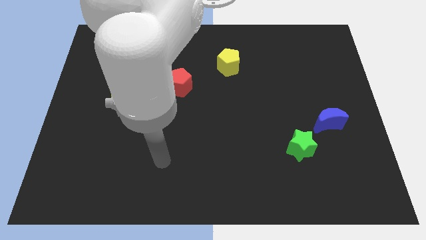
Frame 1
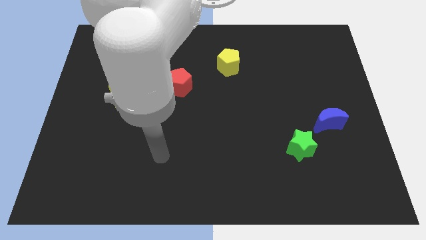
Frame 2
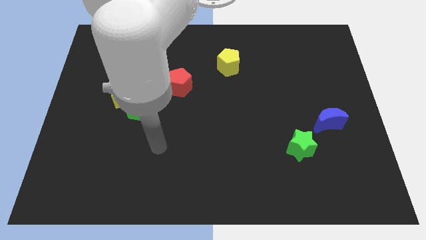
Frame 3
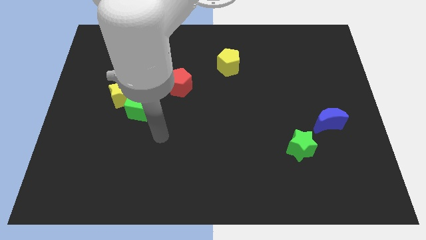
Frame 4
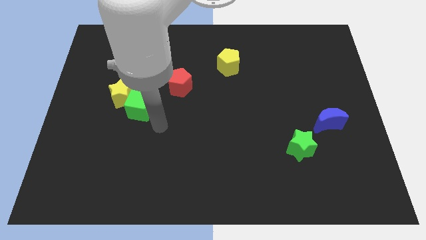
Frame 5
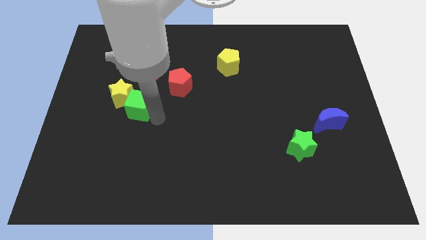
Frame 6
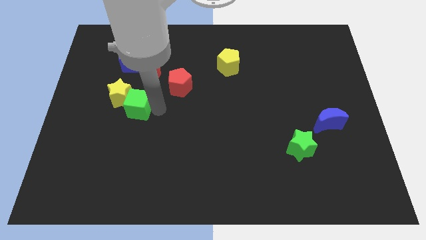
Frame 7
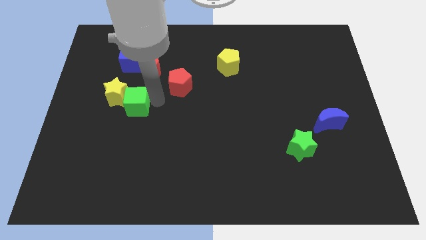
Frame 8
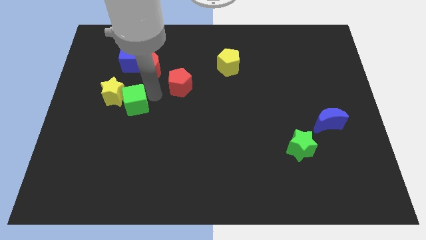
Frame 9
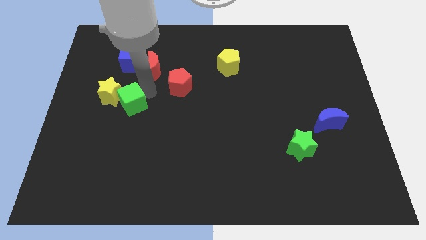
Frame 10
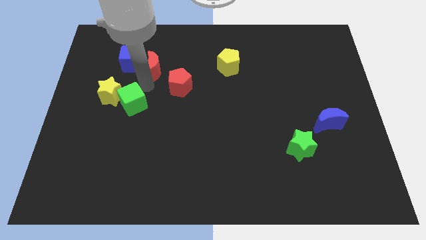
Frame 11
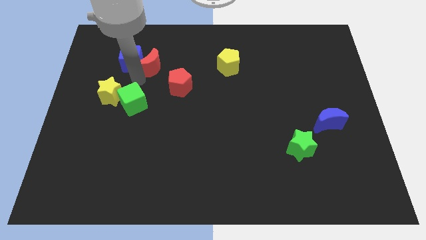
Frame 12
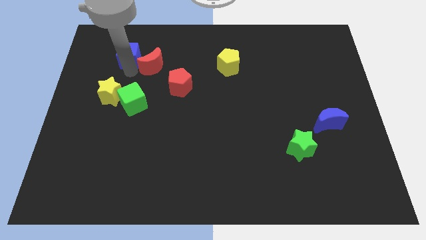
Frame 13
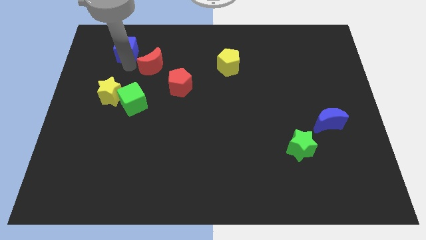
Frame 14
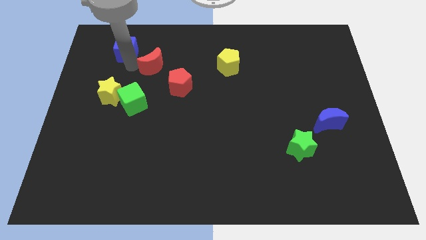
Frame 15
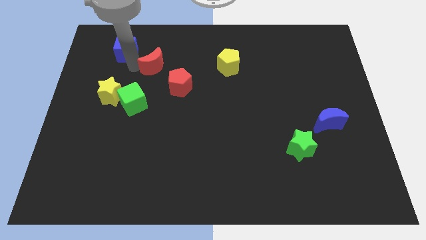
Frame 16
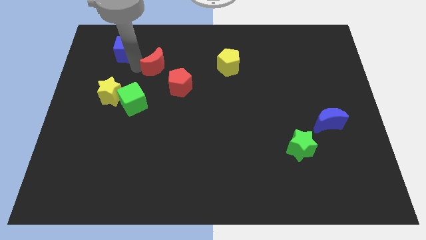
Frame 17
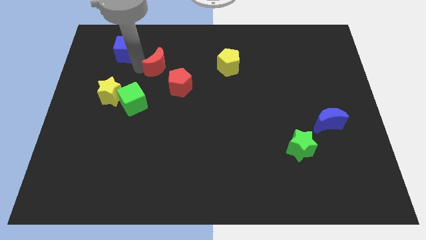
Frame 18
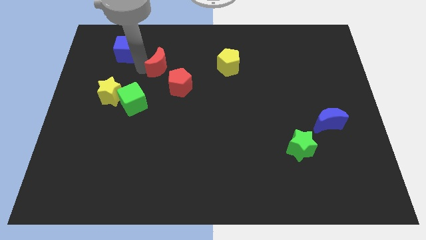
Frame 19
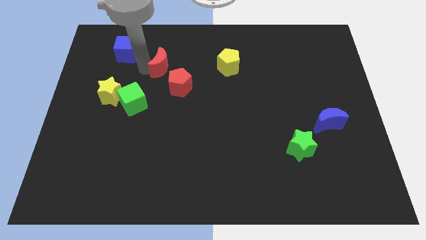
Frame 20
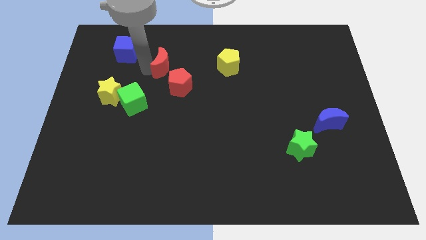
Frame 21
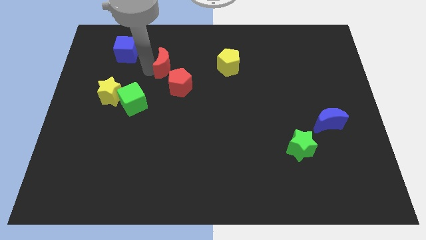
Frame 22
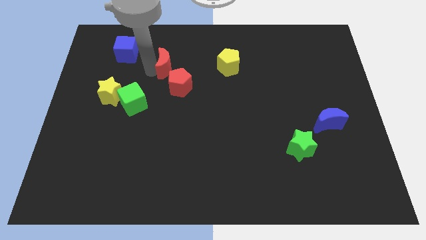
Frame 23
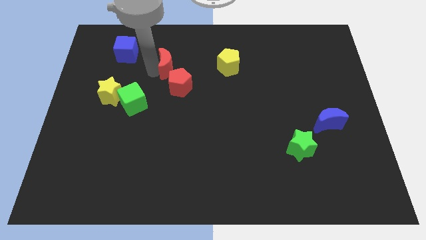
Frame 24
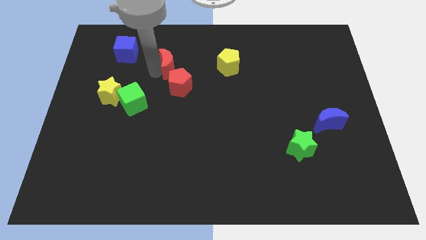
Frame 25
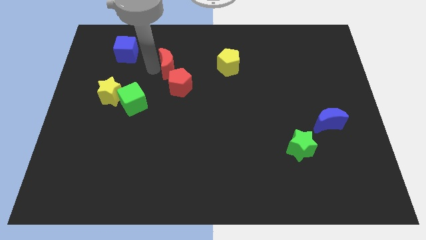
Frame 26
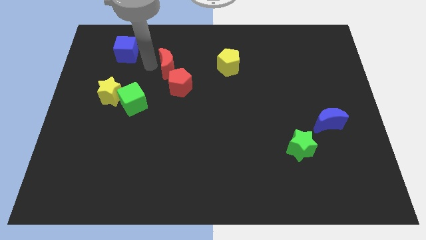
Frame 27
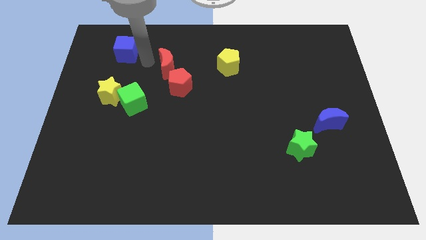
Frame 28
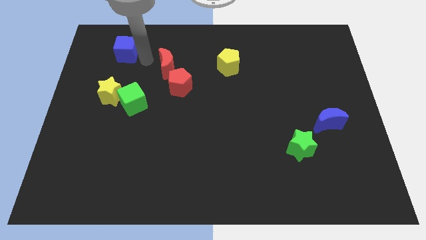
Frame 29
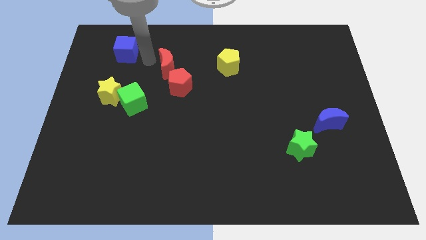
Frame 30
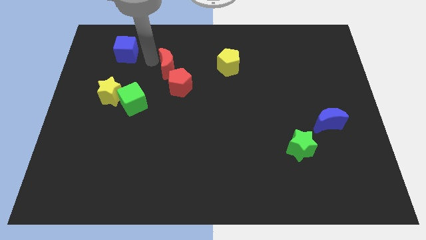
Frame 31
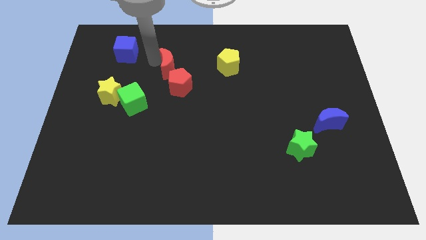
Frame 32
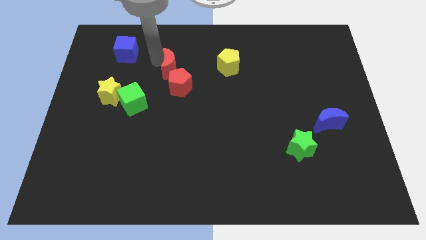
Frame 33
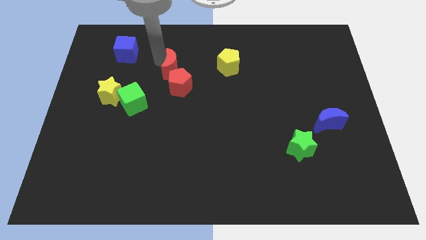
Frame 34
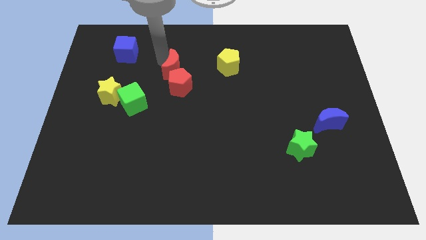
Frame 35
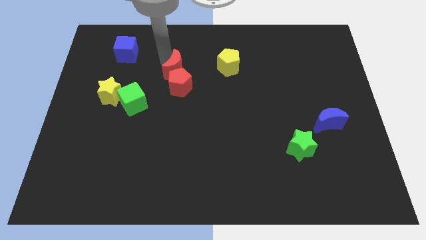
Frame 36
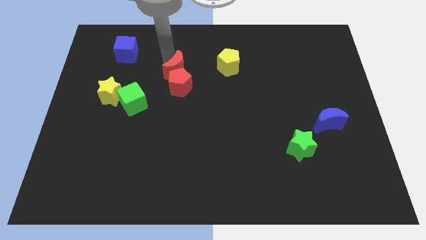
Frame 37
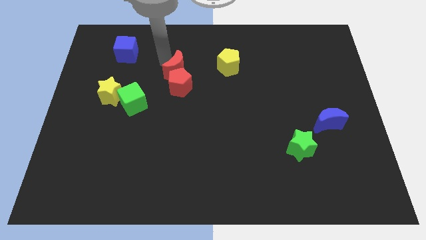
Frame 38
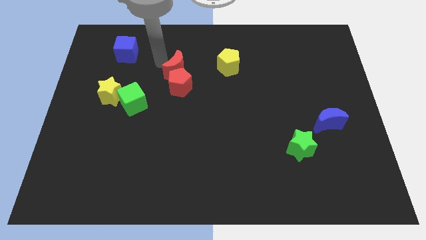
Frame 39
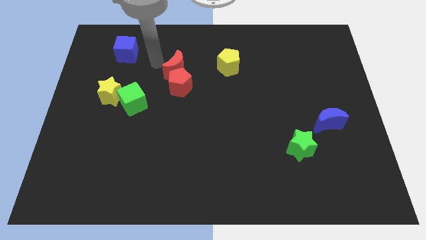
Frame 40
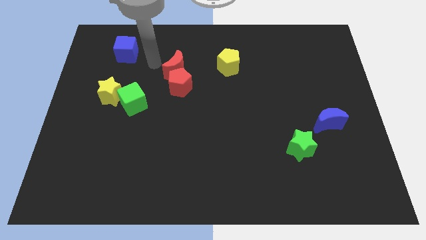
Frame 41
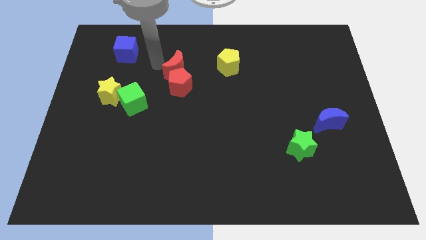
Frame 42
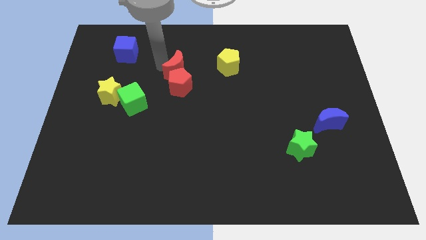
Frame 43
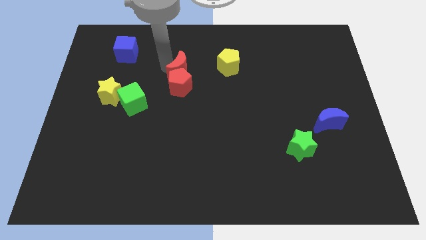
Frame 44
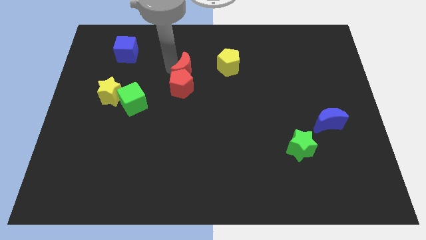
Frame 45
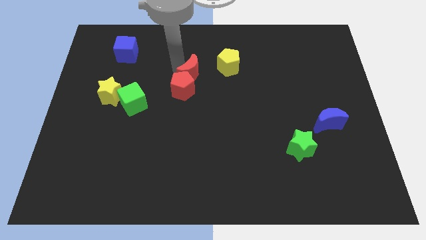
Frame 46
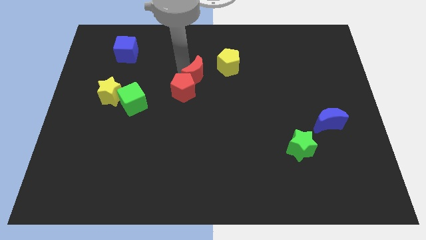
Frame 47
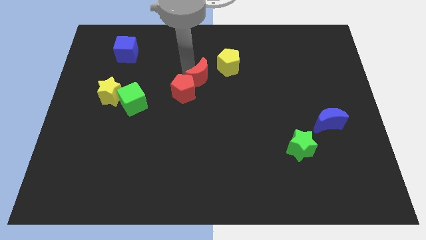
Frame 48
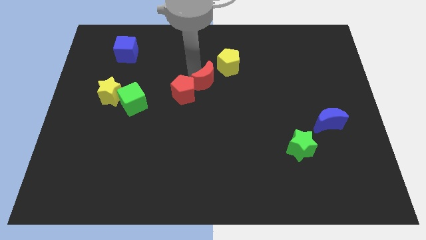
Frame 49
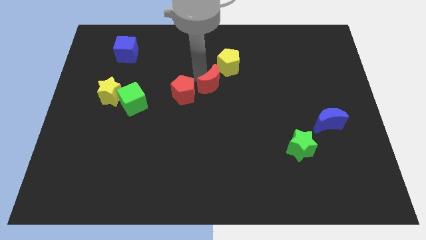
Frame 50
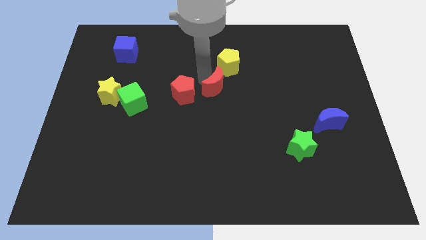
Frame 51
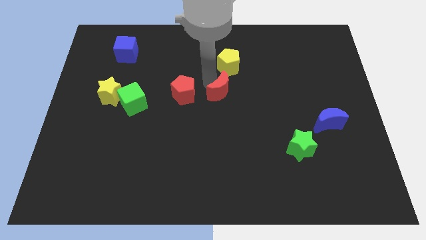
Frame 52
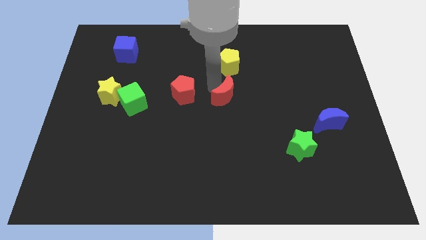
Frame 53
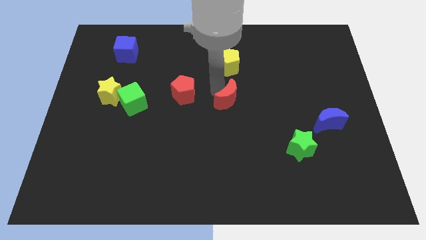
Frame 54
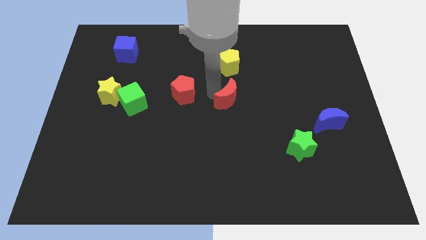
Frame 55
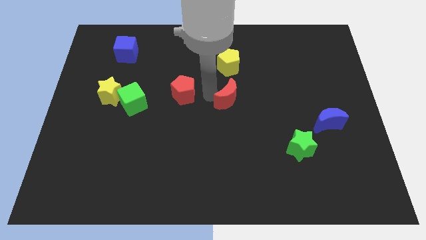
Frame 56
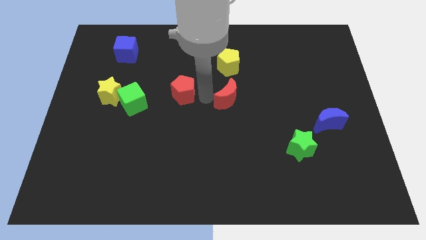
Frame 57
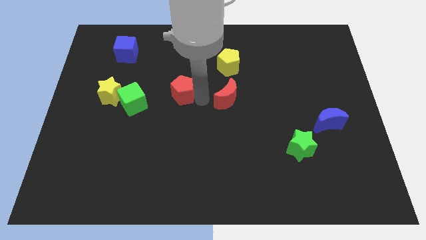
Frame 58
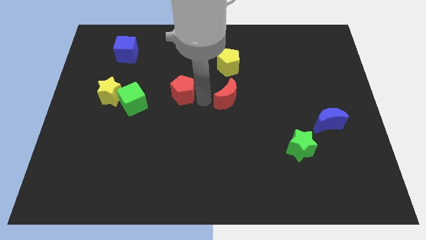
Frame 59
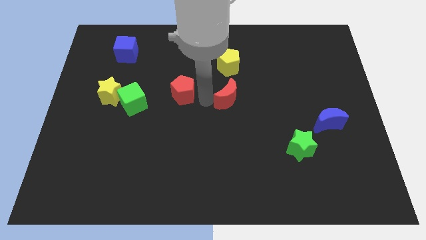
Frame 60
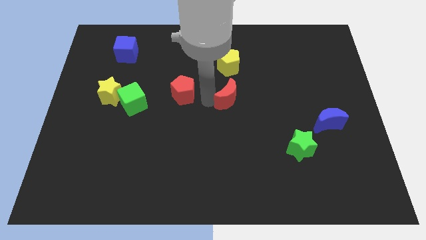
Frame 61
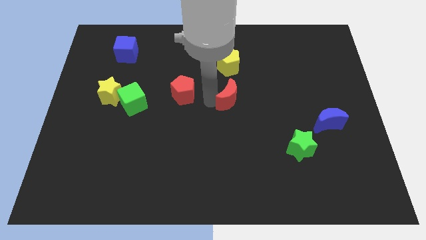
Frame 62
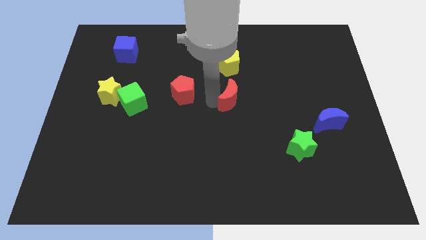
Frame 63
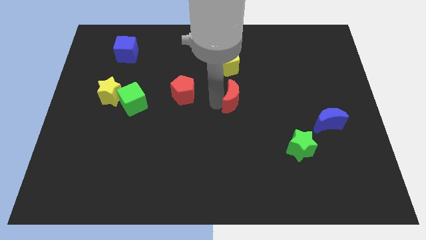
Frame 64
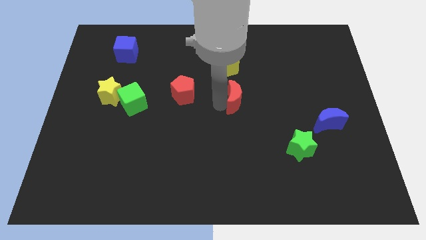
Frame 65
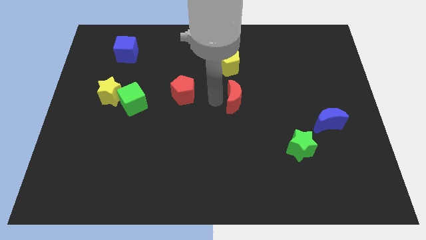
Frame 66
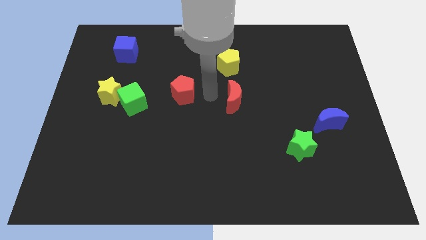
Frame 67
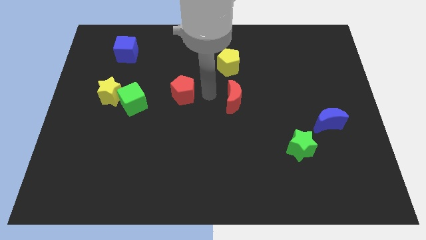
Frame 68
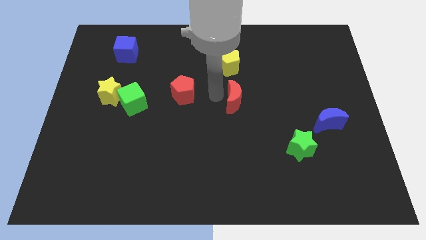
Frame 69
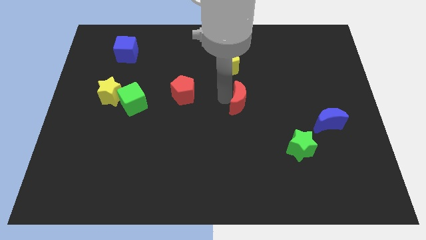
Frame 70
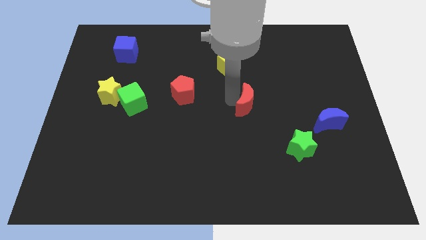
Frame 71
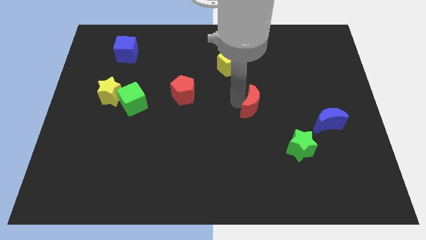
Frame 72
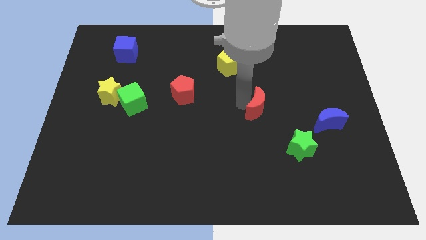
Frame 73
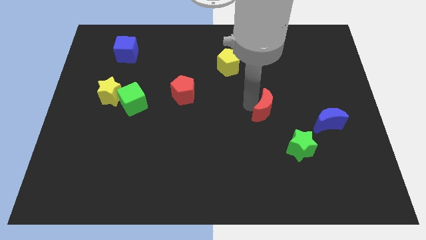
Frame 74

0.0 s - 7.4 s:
put the red moon left of the blue moon
